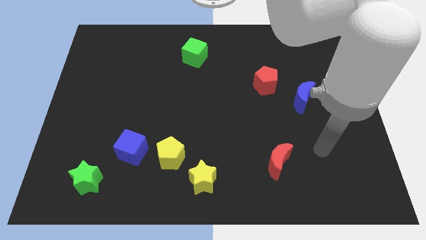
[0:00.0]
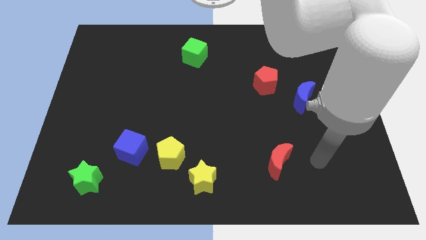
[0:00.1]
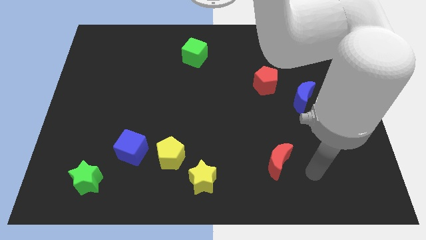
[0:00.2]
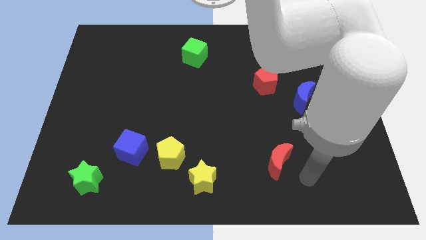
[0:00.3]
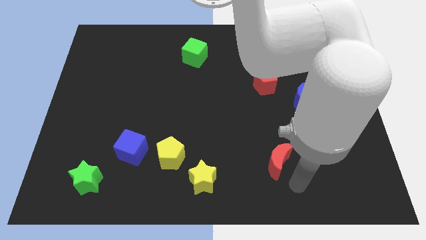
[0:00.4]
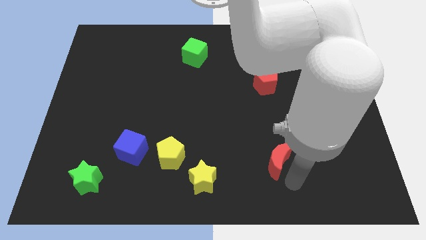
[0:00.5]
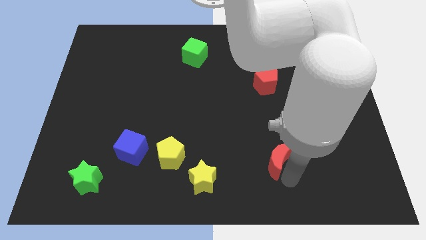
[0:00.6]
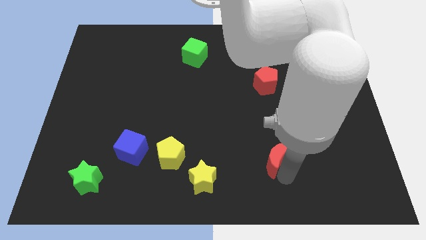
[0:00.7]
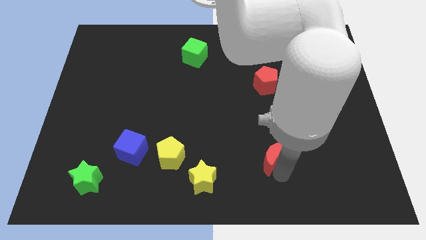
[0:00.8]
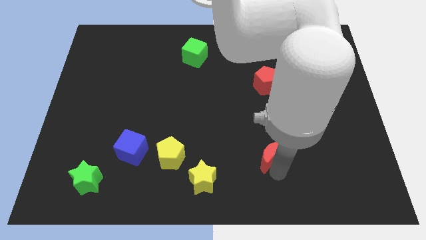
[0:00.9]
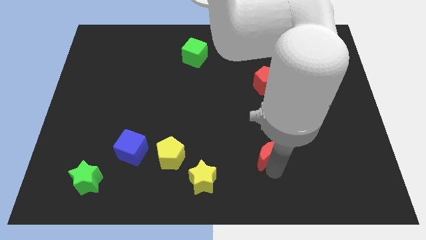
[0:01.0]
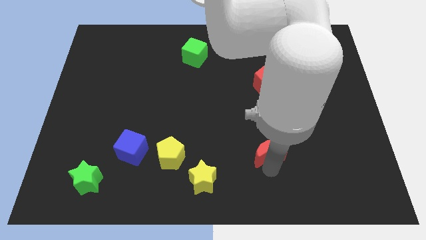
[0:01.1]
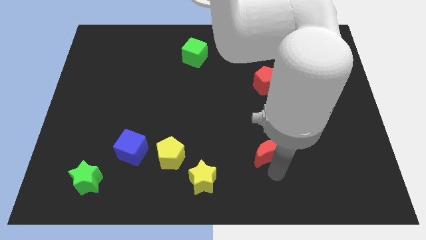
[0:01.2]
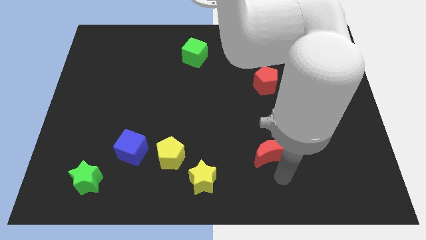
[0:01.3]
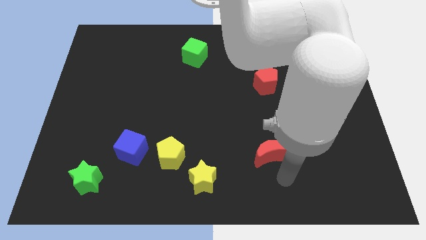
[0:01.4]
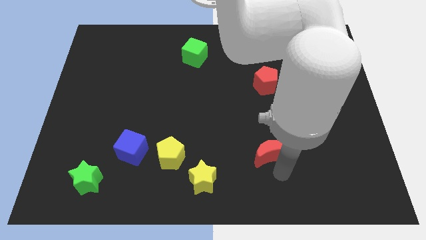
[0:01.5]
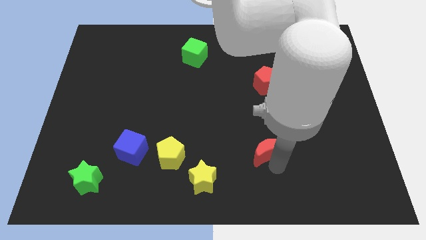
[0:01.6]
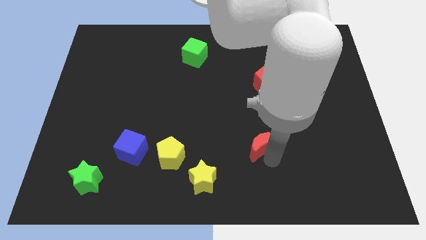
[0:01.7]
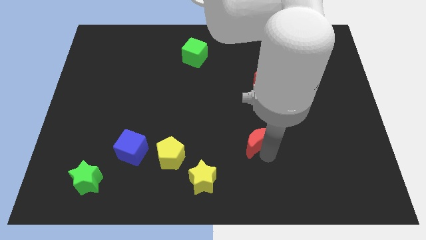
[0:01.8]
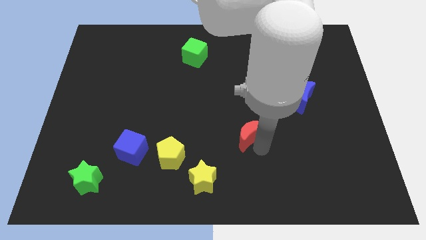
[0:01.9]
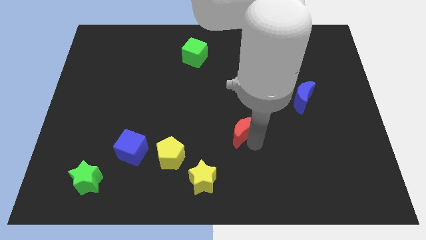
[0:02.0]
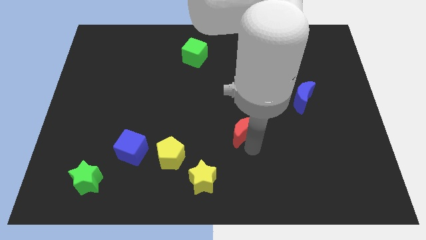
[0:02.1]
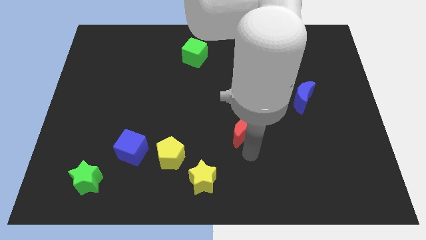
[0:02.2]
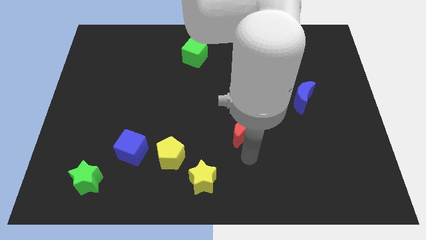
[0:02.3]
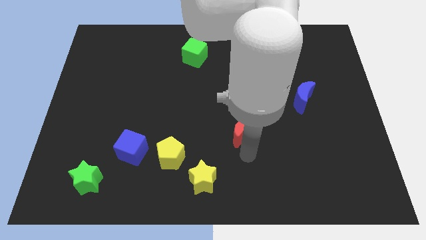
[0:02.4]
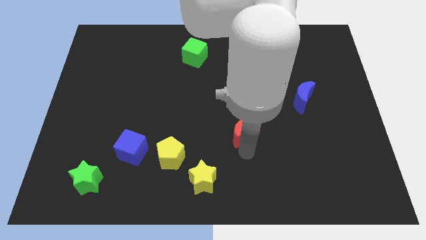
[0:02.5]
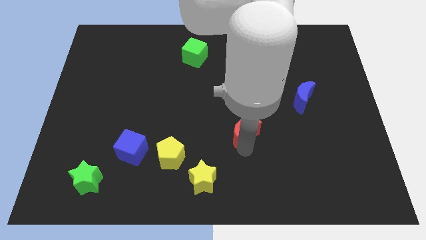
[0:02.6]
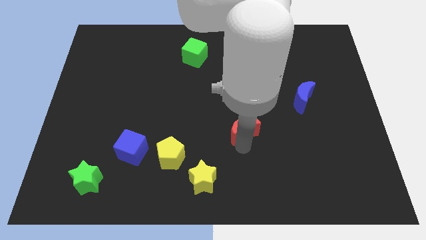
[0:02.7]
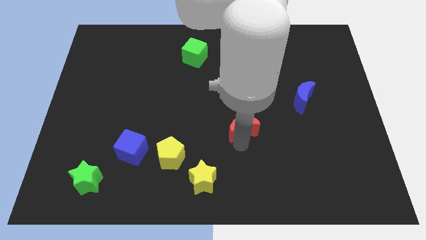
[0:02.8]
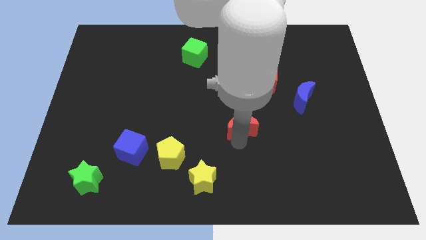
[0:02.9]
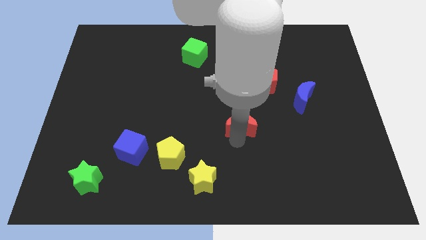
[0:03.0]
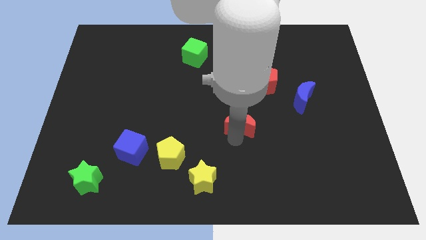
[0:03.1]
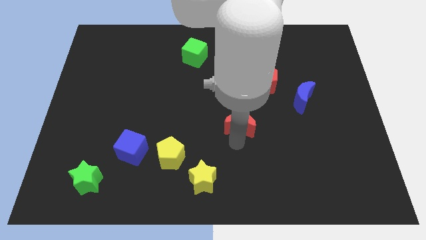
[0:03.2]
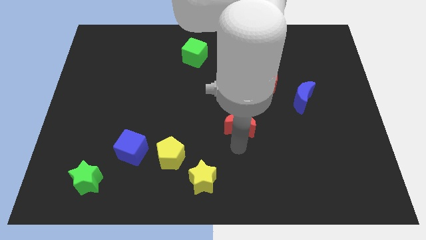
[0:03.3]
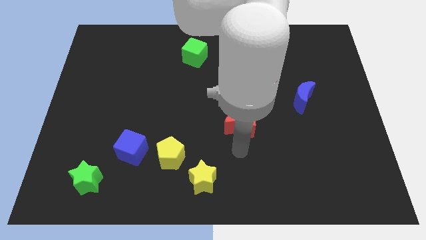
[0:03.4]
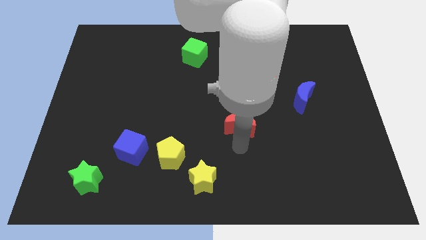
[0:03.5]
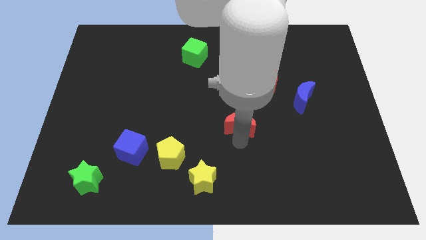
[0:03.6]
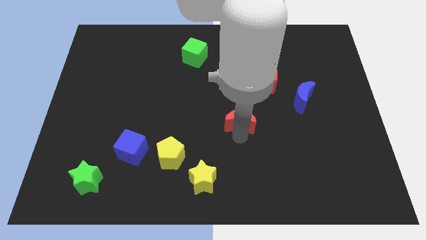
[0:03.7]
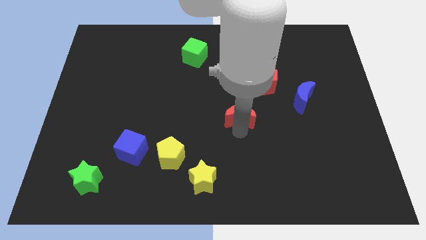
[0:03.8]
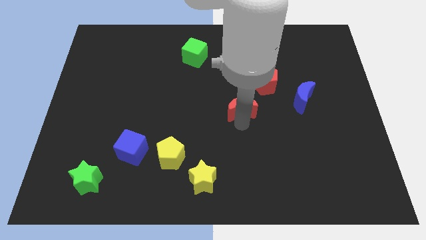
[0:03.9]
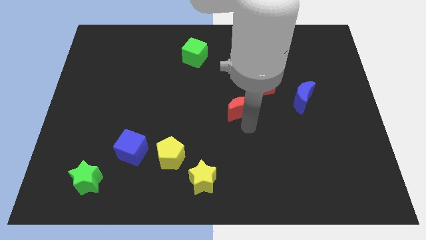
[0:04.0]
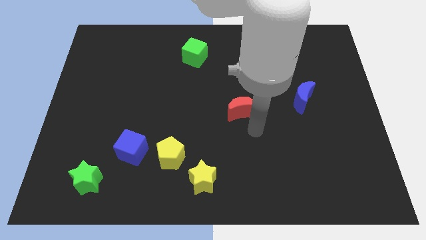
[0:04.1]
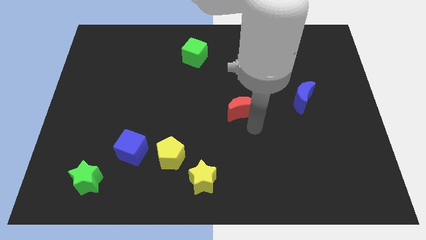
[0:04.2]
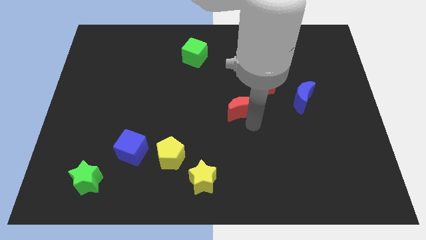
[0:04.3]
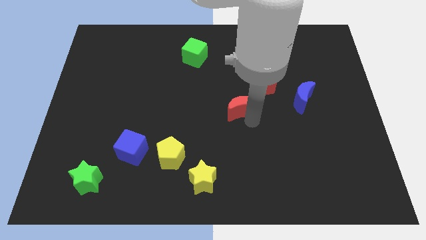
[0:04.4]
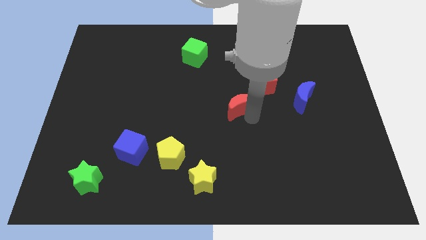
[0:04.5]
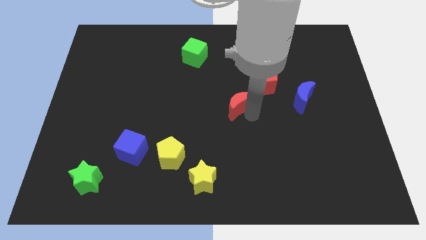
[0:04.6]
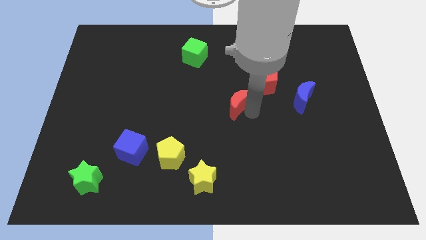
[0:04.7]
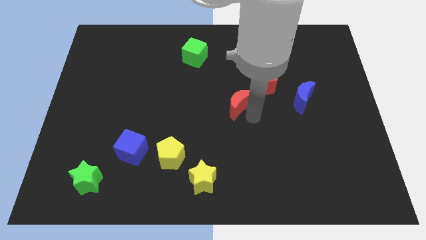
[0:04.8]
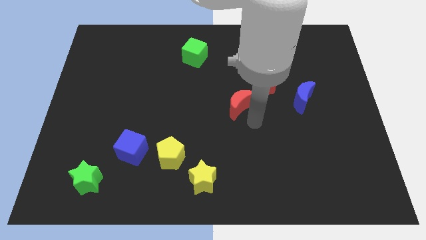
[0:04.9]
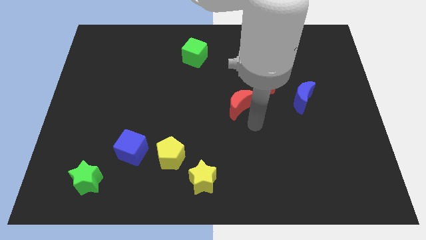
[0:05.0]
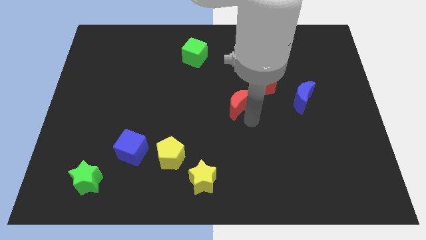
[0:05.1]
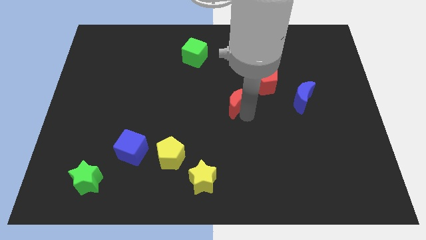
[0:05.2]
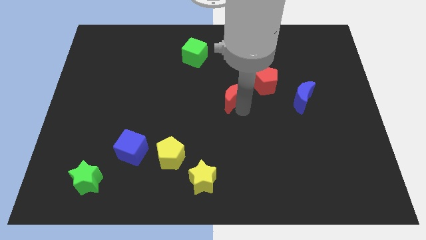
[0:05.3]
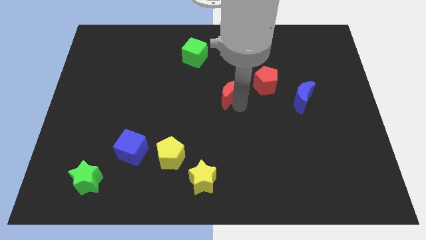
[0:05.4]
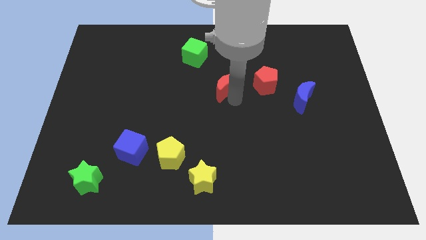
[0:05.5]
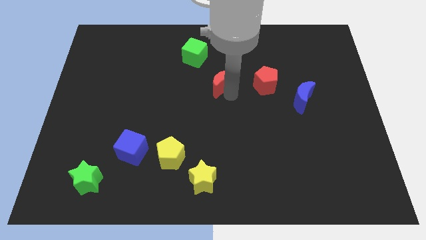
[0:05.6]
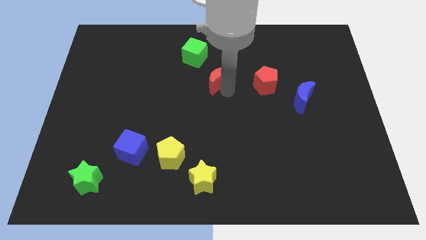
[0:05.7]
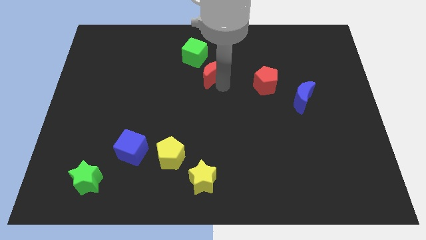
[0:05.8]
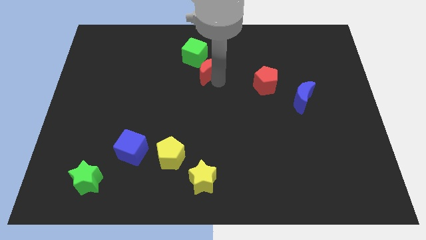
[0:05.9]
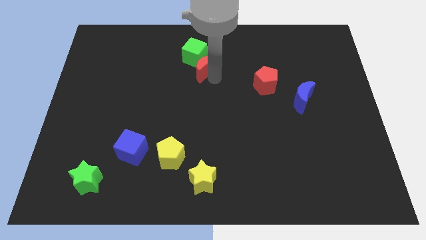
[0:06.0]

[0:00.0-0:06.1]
put the red moon close to the green cube

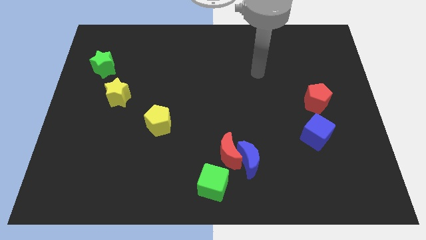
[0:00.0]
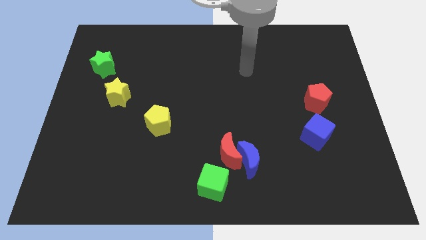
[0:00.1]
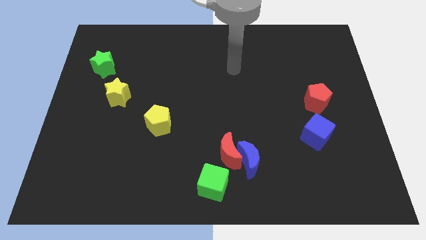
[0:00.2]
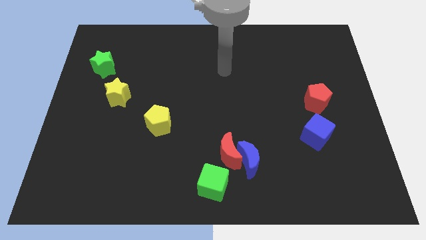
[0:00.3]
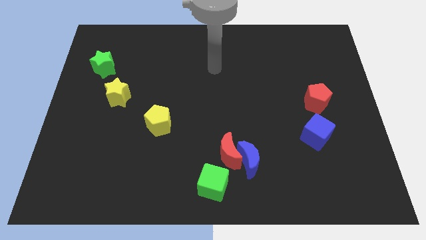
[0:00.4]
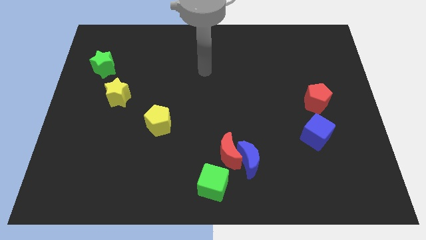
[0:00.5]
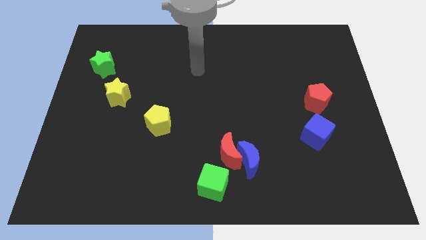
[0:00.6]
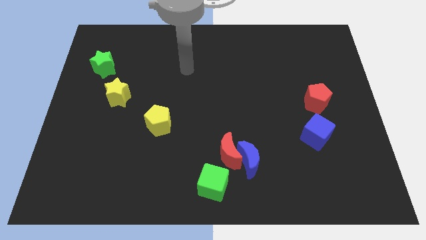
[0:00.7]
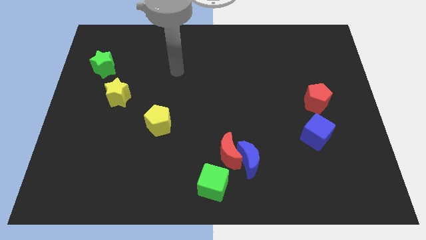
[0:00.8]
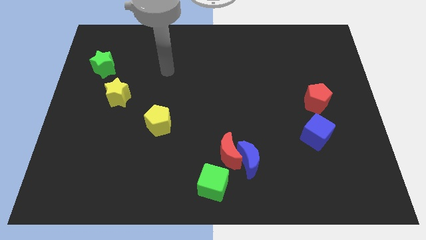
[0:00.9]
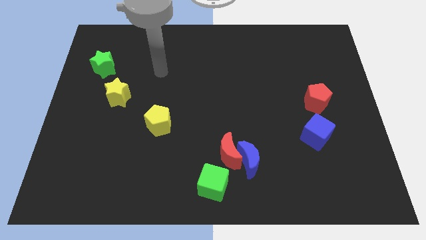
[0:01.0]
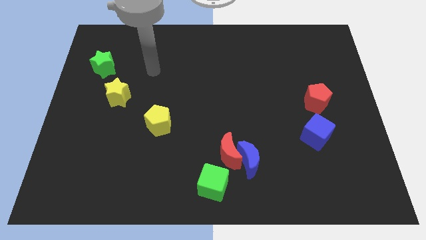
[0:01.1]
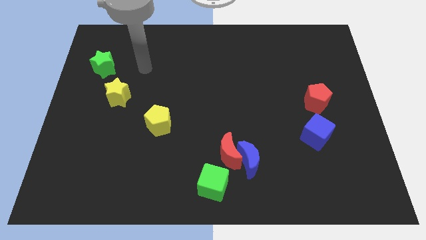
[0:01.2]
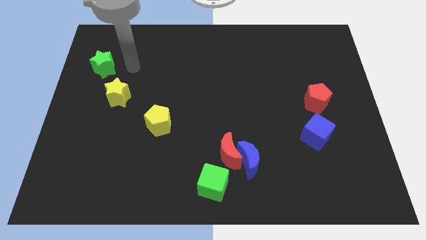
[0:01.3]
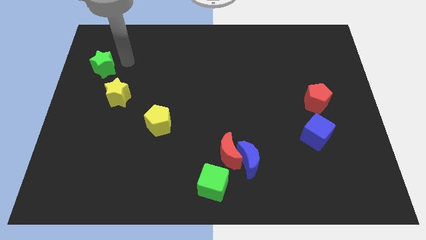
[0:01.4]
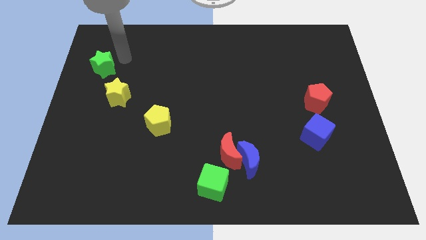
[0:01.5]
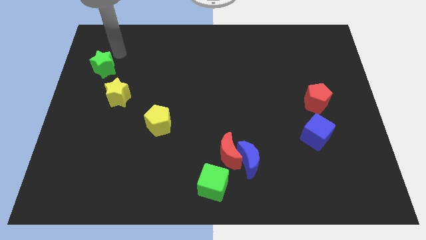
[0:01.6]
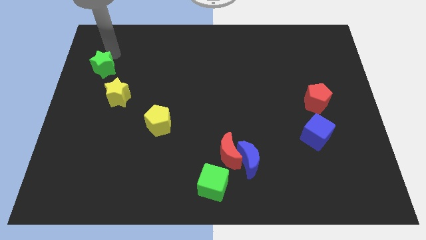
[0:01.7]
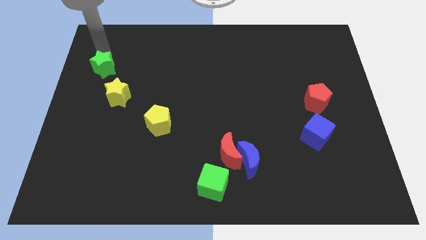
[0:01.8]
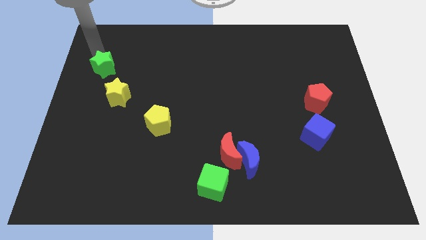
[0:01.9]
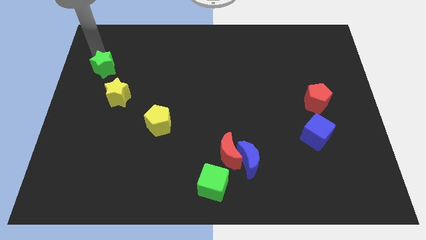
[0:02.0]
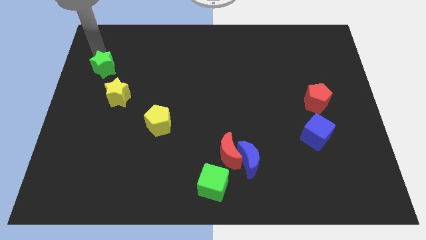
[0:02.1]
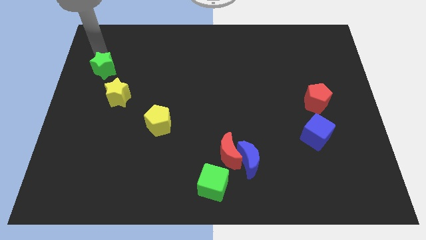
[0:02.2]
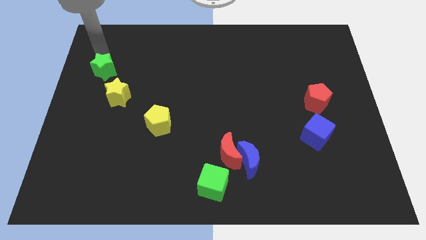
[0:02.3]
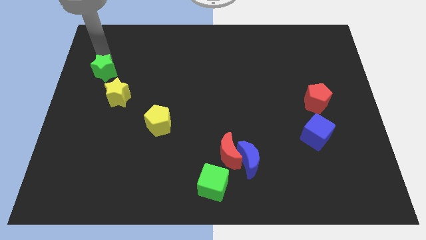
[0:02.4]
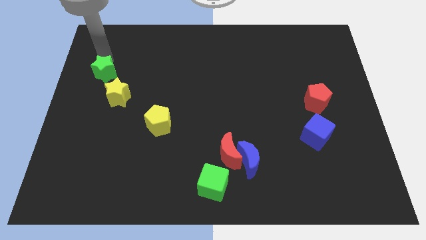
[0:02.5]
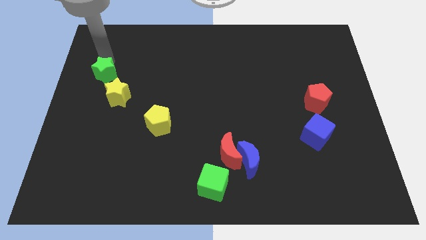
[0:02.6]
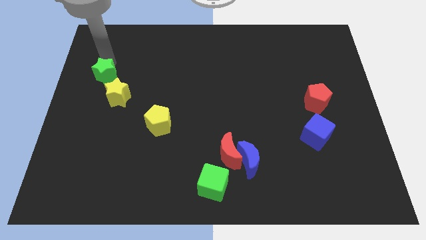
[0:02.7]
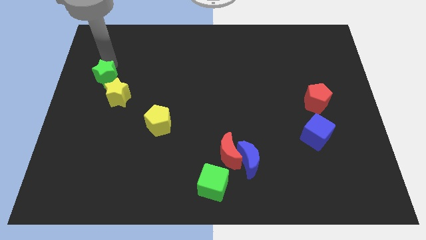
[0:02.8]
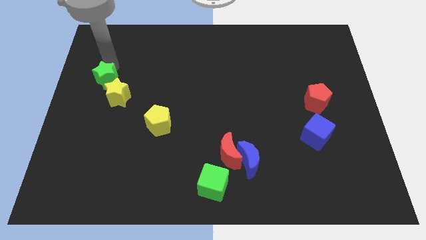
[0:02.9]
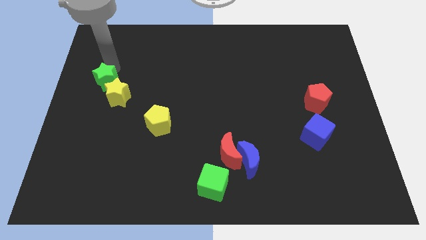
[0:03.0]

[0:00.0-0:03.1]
move the green star next to the yellow star
